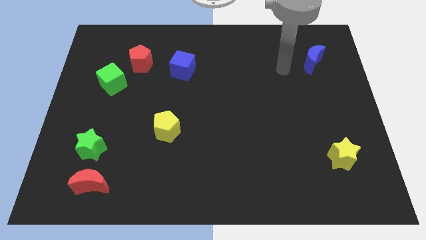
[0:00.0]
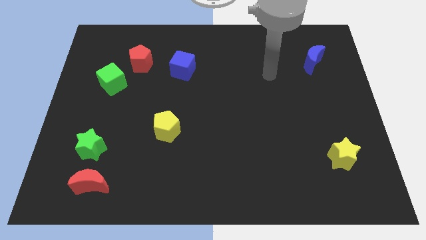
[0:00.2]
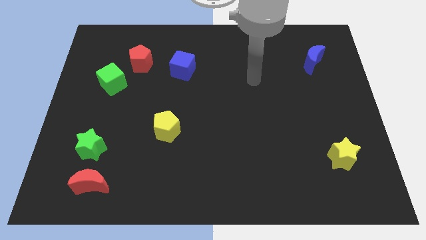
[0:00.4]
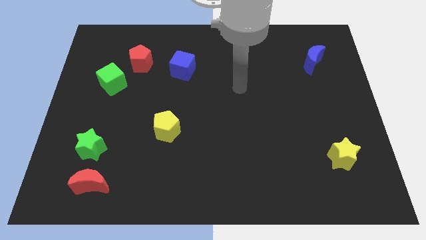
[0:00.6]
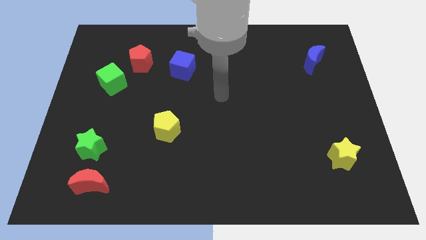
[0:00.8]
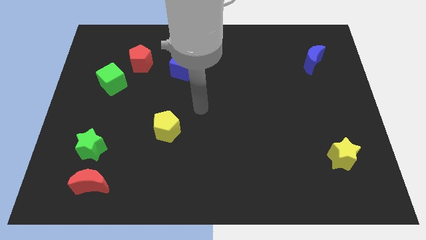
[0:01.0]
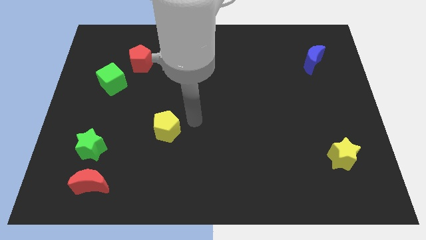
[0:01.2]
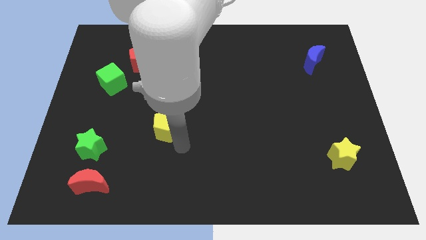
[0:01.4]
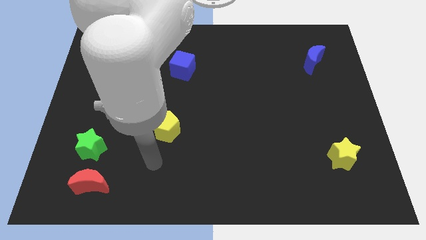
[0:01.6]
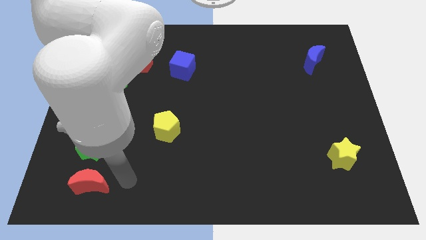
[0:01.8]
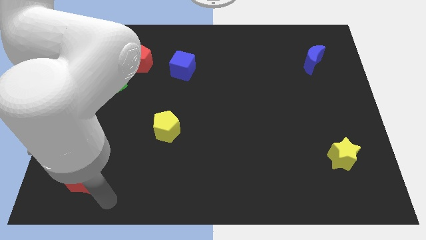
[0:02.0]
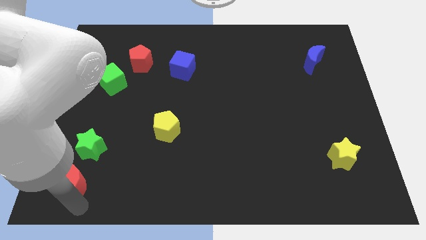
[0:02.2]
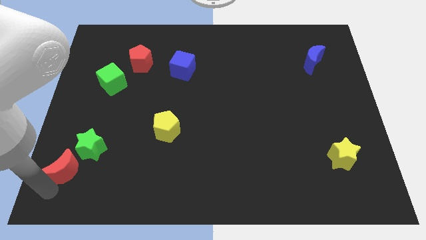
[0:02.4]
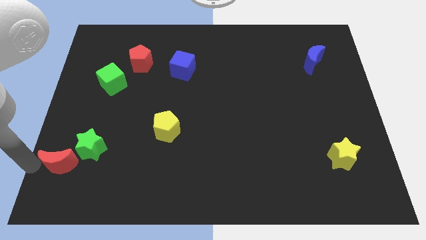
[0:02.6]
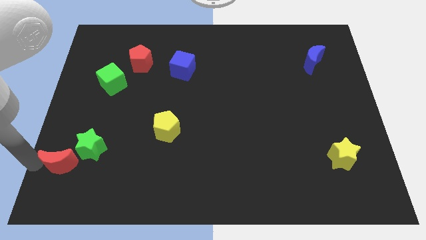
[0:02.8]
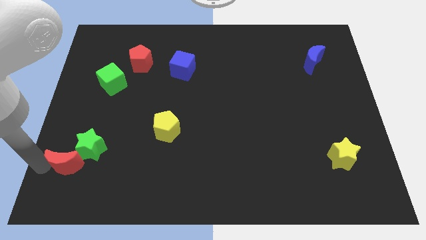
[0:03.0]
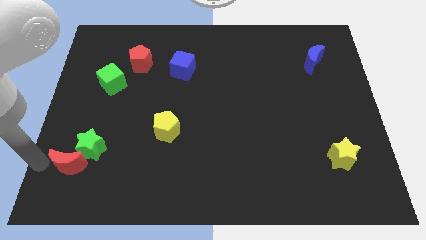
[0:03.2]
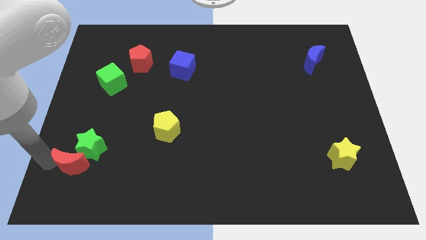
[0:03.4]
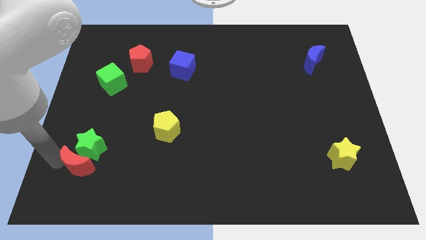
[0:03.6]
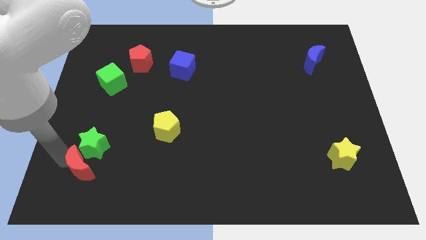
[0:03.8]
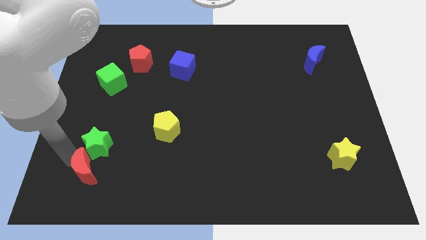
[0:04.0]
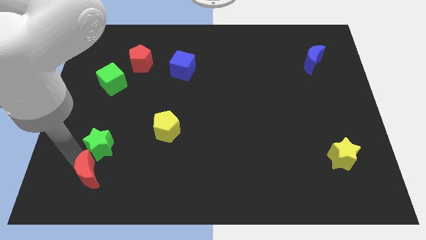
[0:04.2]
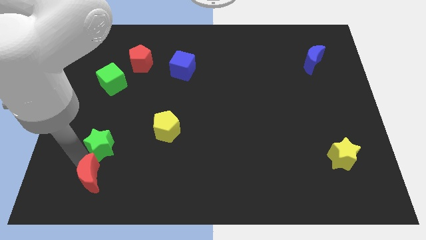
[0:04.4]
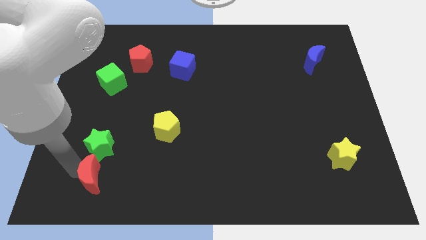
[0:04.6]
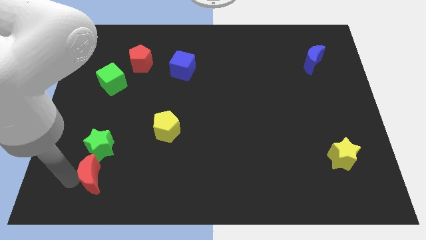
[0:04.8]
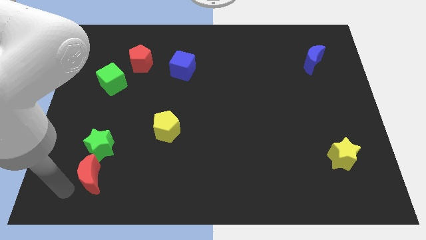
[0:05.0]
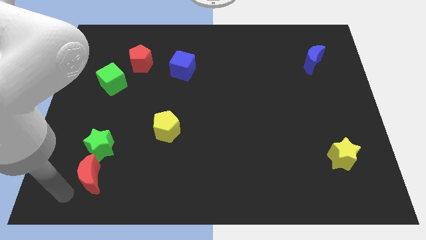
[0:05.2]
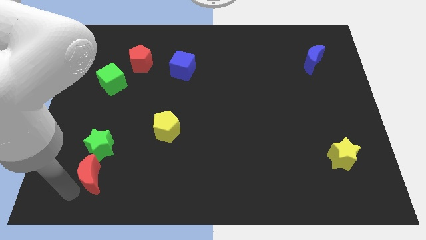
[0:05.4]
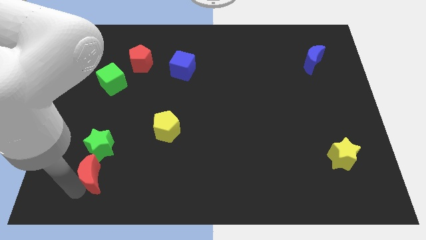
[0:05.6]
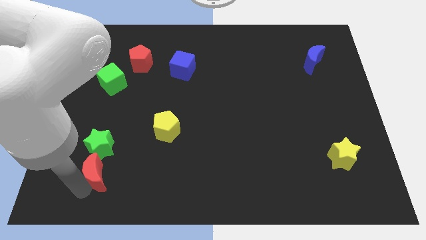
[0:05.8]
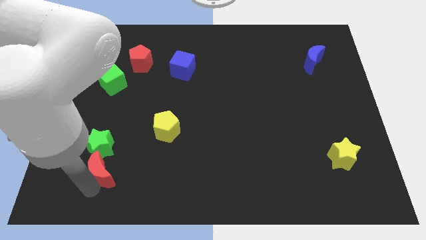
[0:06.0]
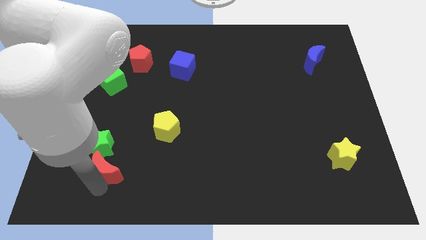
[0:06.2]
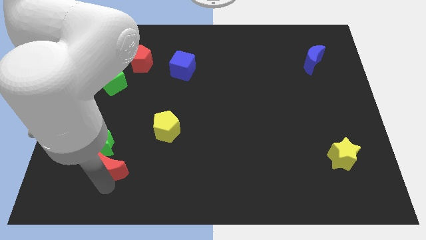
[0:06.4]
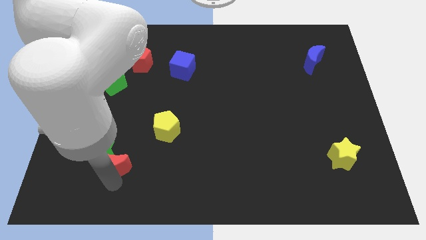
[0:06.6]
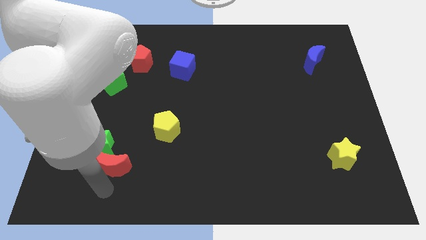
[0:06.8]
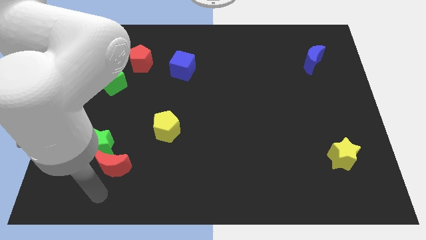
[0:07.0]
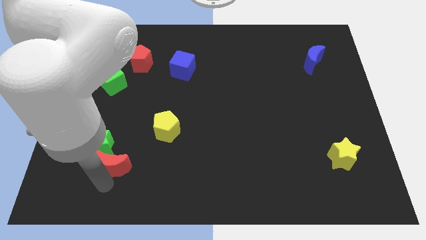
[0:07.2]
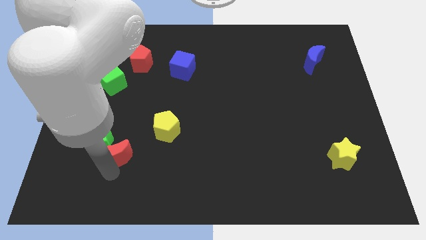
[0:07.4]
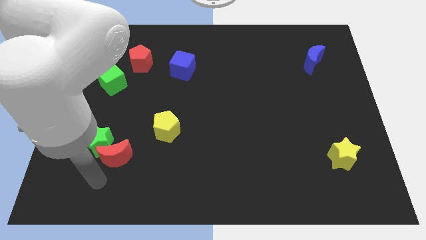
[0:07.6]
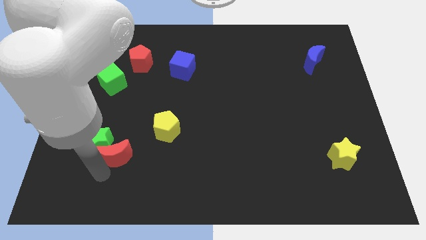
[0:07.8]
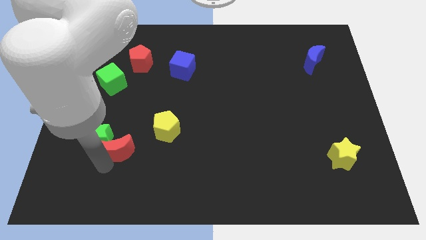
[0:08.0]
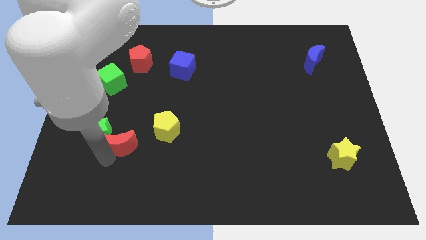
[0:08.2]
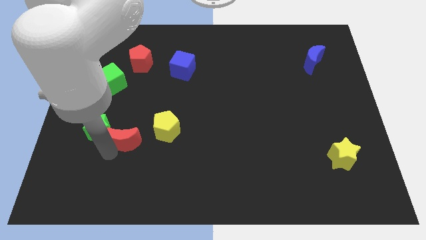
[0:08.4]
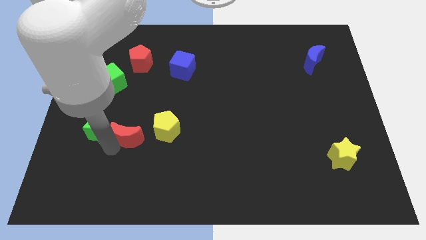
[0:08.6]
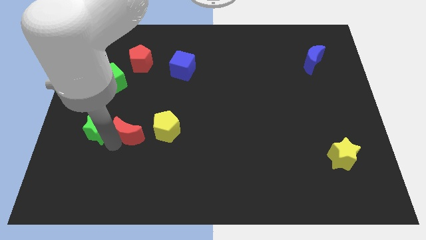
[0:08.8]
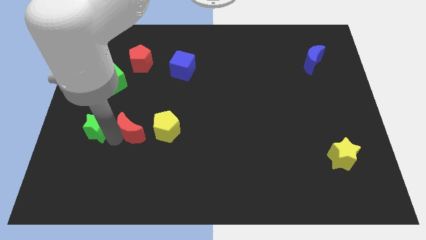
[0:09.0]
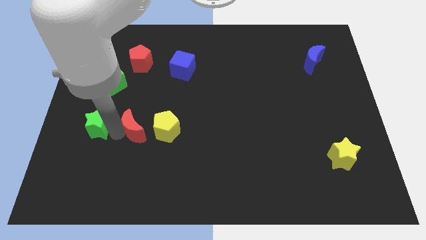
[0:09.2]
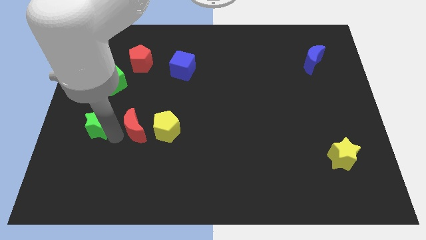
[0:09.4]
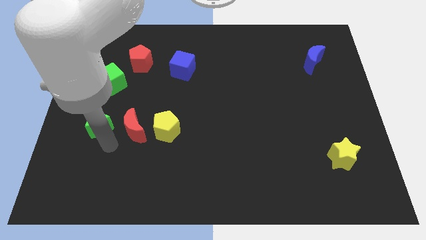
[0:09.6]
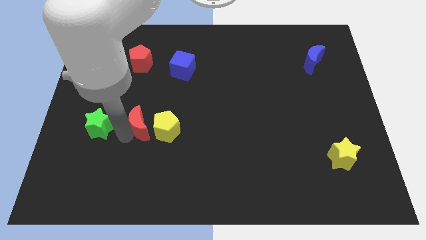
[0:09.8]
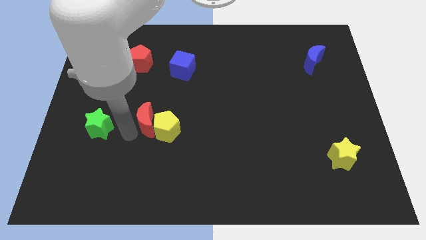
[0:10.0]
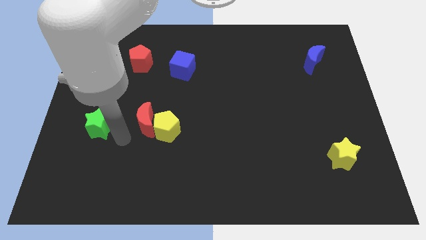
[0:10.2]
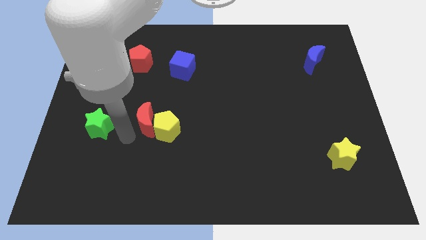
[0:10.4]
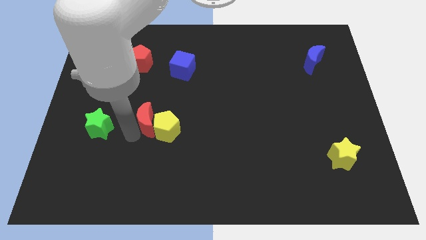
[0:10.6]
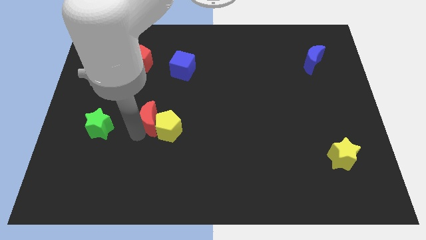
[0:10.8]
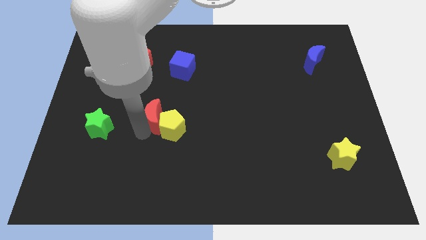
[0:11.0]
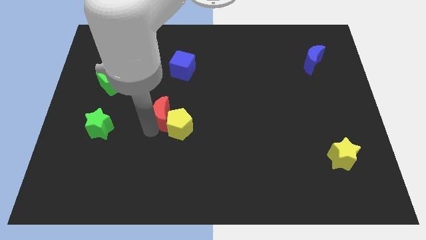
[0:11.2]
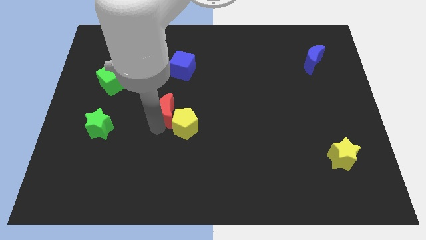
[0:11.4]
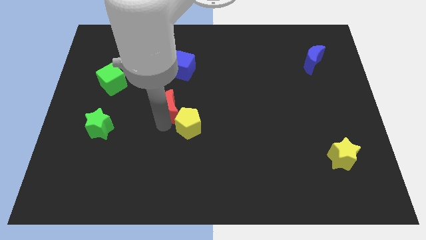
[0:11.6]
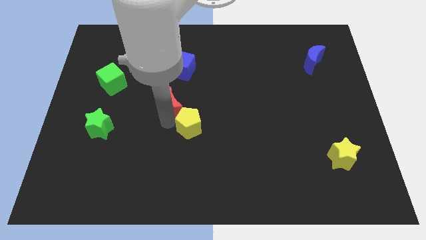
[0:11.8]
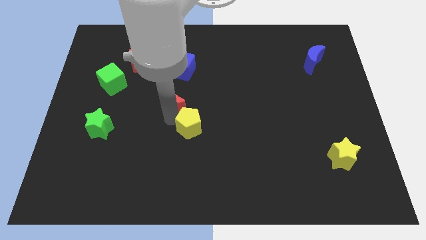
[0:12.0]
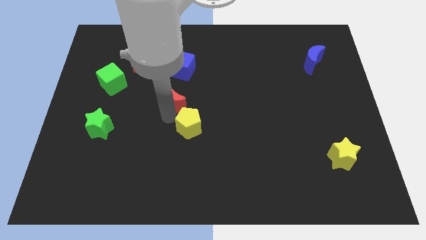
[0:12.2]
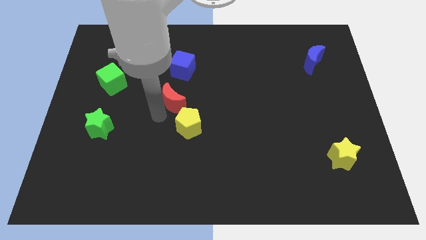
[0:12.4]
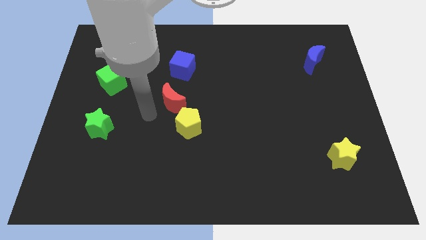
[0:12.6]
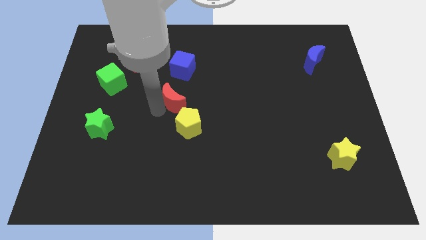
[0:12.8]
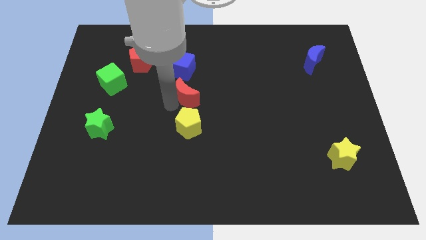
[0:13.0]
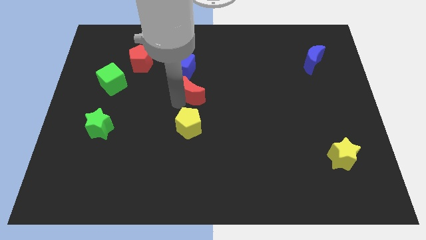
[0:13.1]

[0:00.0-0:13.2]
push the red moon to the bottom right of the blue cube

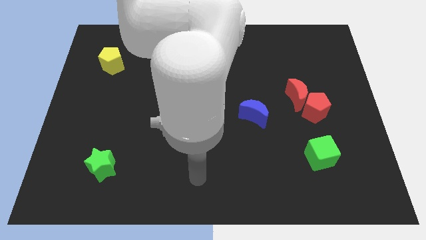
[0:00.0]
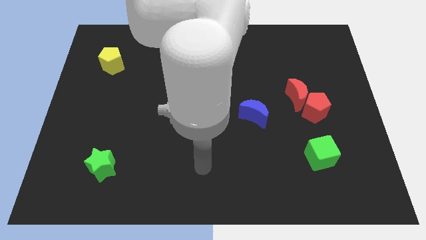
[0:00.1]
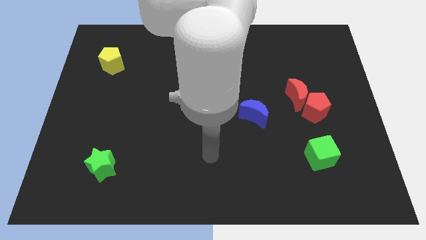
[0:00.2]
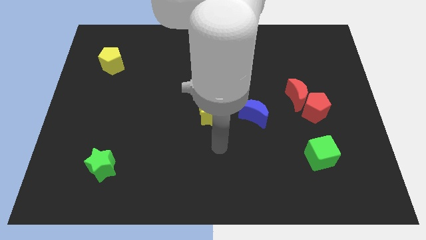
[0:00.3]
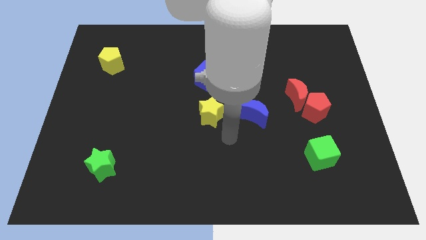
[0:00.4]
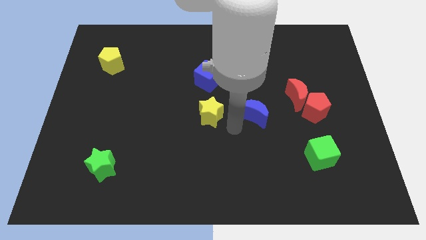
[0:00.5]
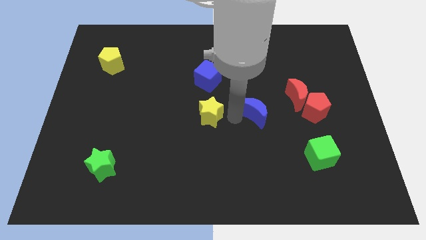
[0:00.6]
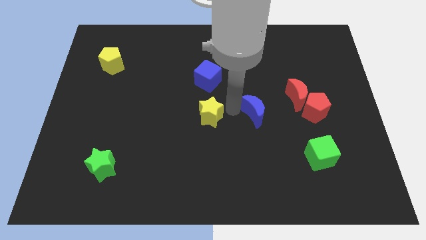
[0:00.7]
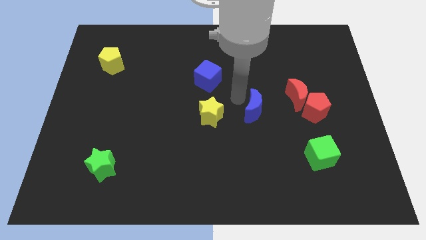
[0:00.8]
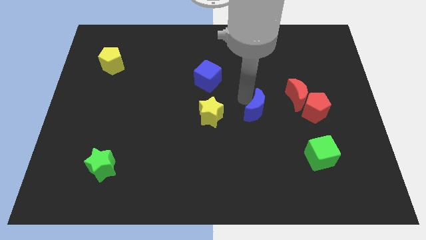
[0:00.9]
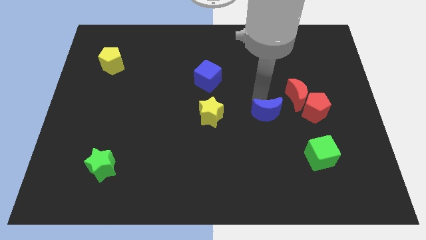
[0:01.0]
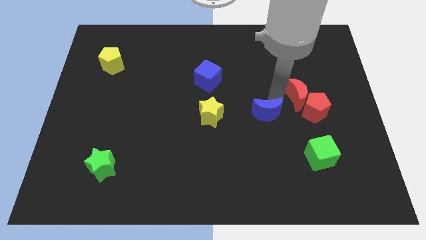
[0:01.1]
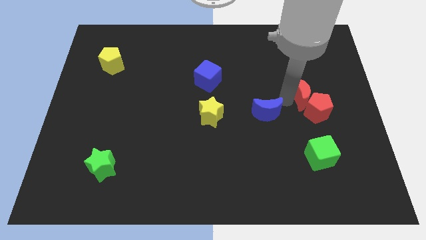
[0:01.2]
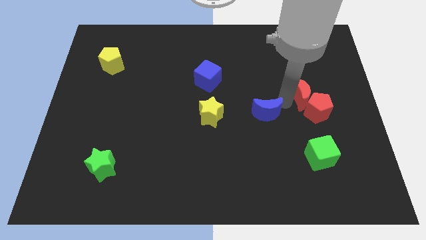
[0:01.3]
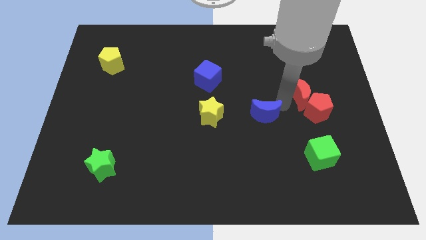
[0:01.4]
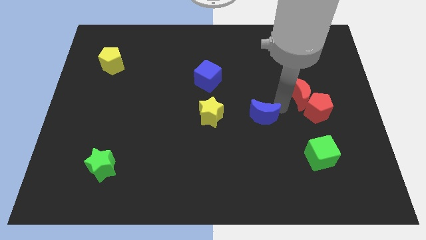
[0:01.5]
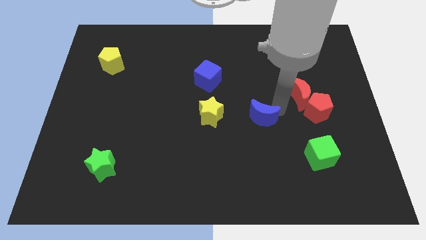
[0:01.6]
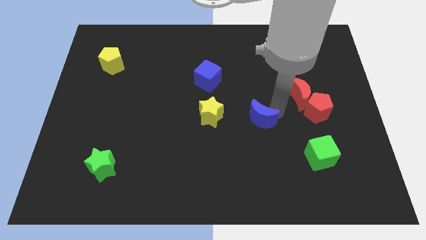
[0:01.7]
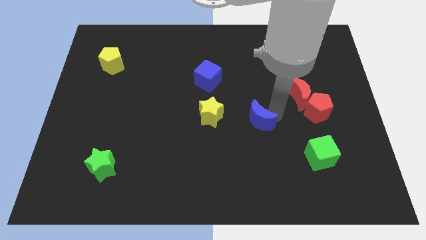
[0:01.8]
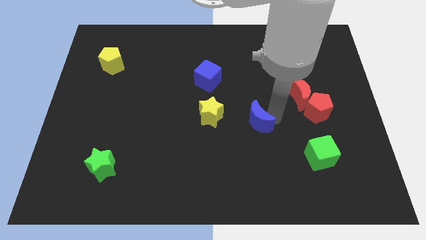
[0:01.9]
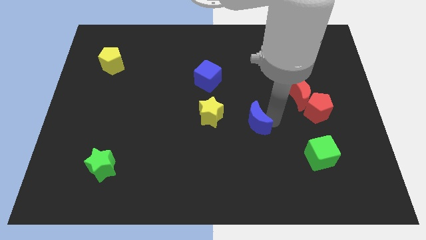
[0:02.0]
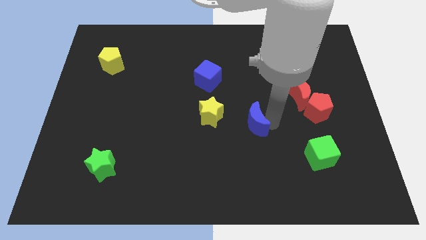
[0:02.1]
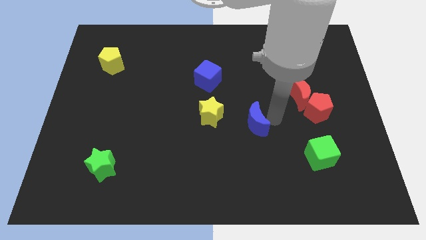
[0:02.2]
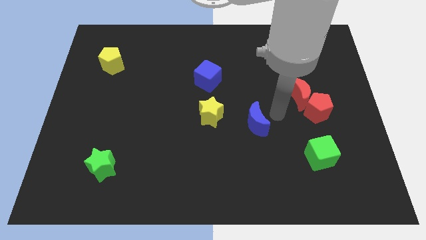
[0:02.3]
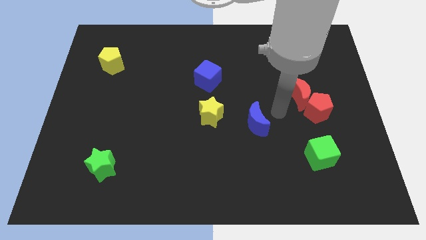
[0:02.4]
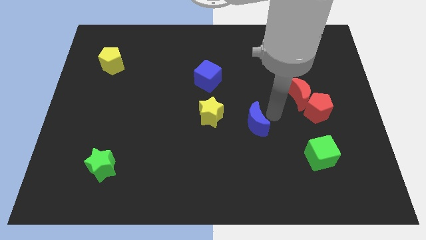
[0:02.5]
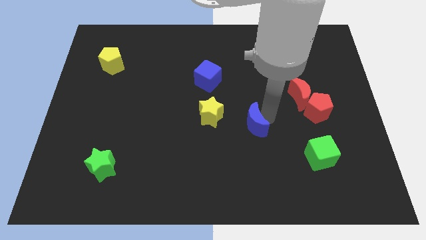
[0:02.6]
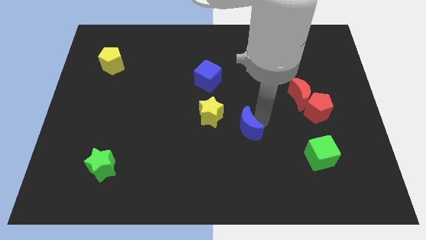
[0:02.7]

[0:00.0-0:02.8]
slide the blue moon to the bottom right side of the yellow star
